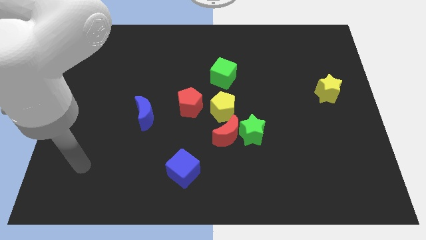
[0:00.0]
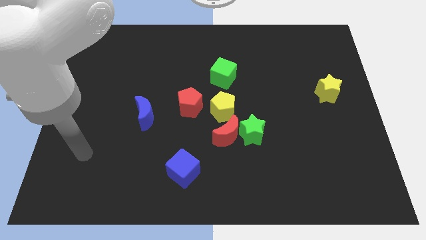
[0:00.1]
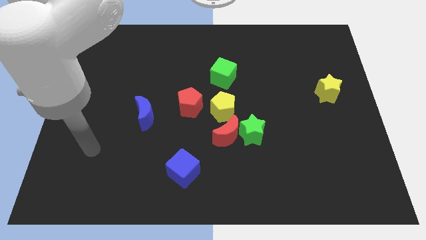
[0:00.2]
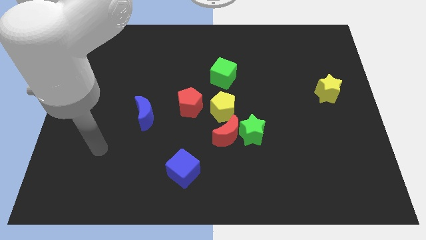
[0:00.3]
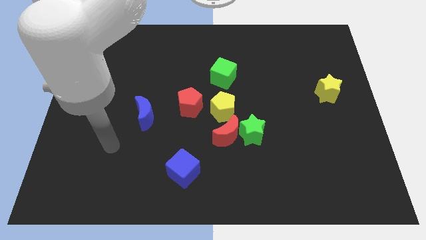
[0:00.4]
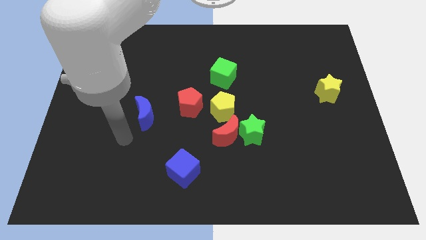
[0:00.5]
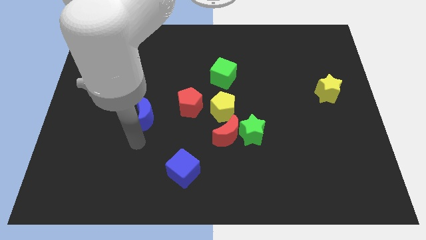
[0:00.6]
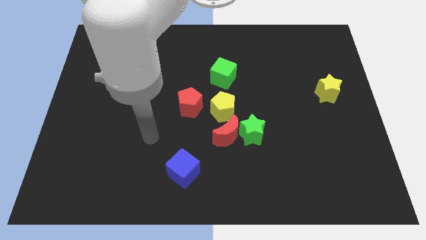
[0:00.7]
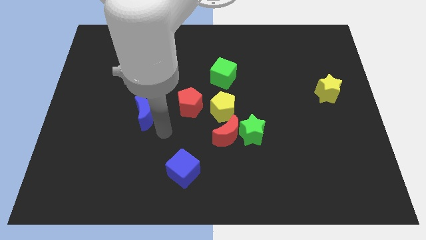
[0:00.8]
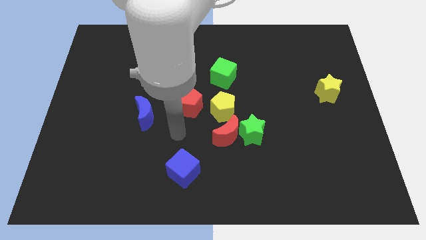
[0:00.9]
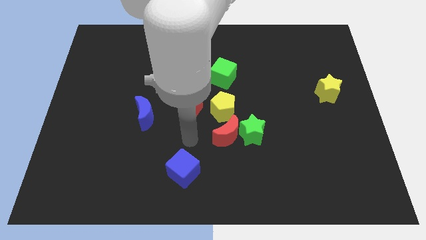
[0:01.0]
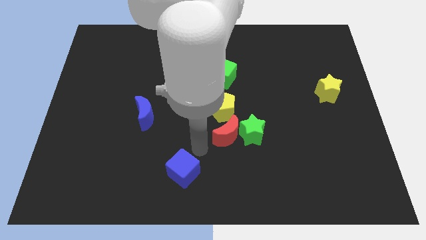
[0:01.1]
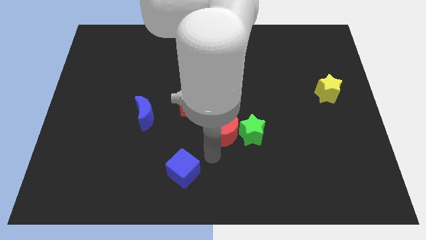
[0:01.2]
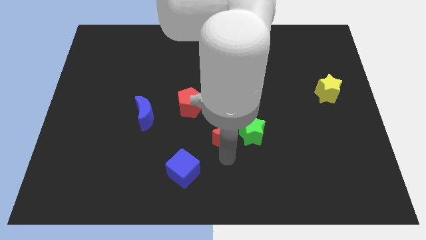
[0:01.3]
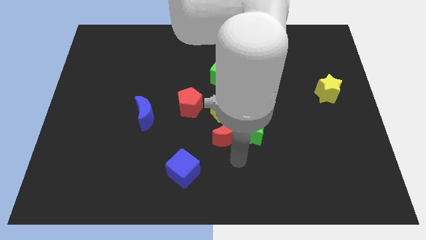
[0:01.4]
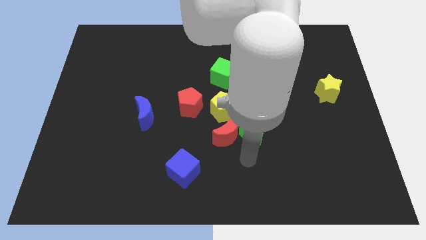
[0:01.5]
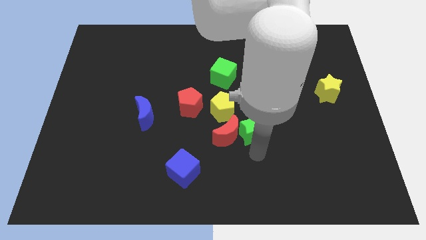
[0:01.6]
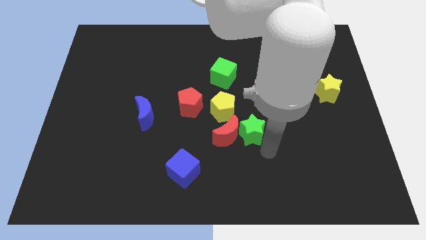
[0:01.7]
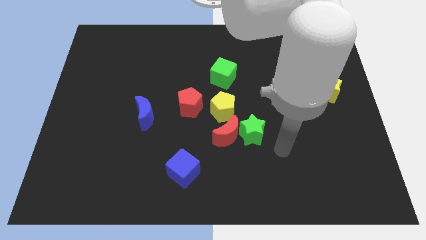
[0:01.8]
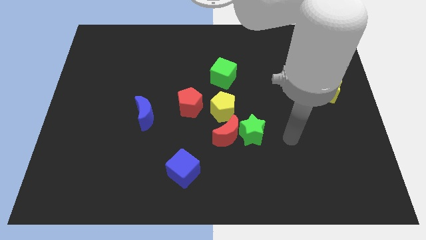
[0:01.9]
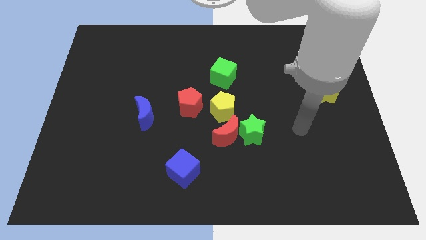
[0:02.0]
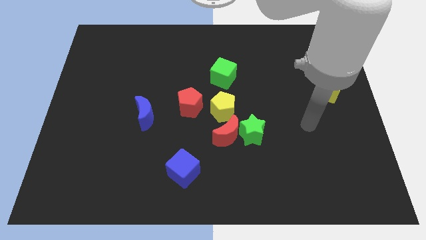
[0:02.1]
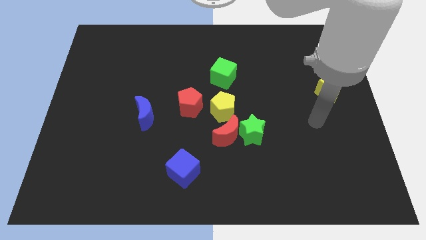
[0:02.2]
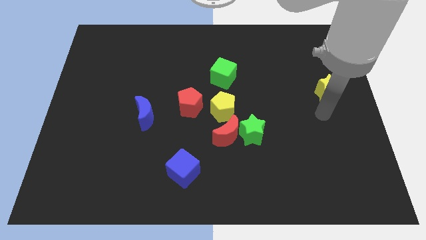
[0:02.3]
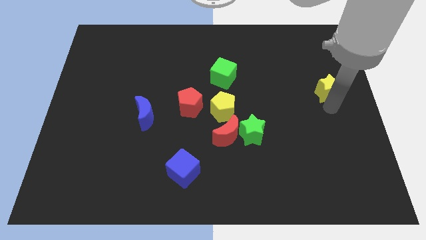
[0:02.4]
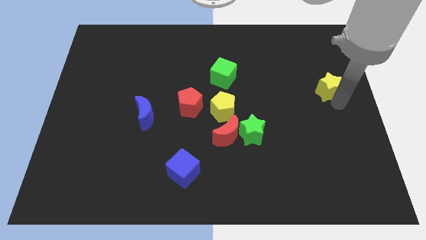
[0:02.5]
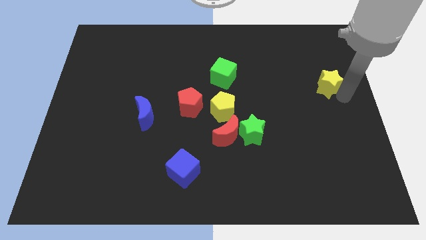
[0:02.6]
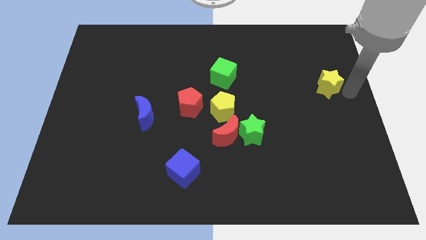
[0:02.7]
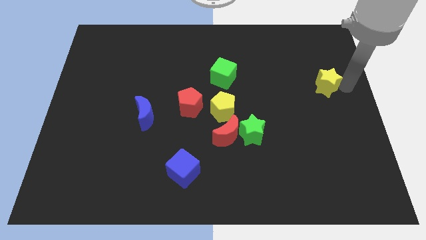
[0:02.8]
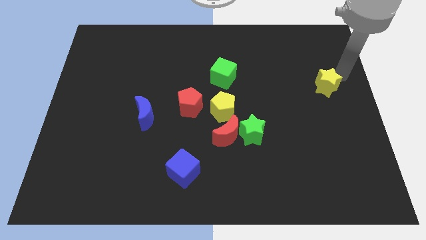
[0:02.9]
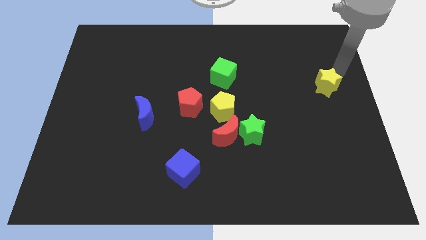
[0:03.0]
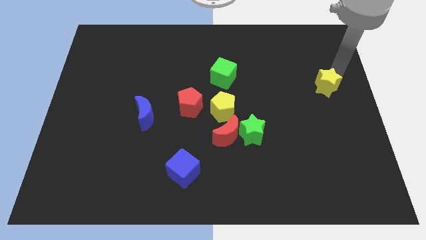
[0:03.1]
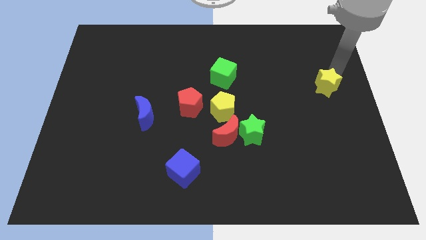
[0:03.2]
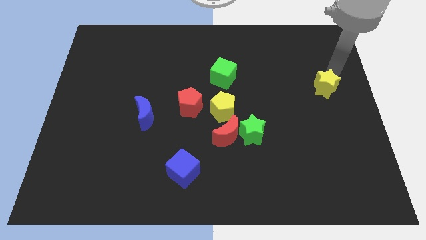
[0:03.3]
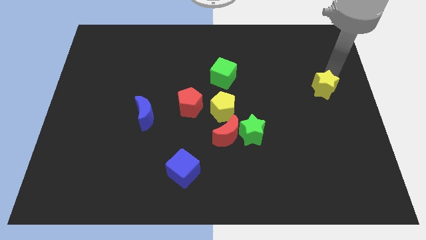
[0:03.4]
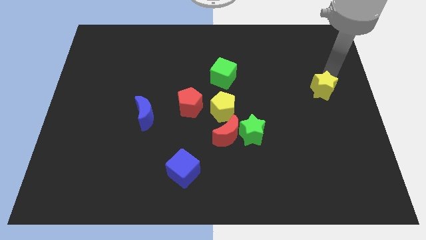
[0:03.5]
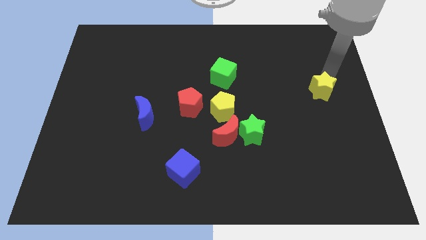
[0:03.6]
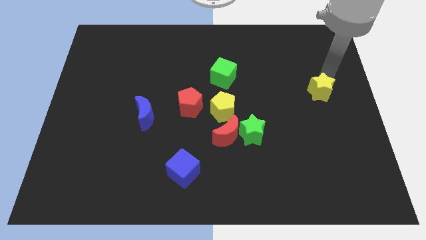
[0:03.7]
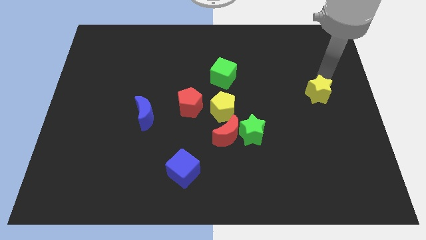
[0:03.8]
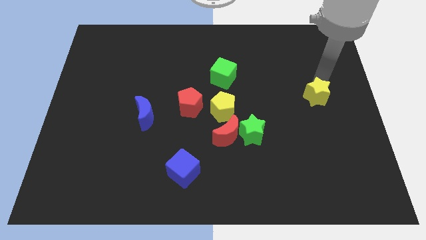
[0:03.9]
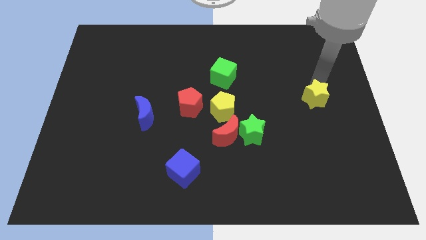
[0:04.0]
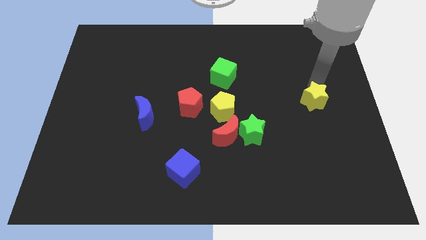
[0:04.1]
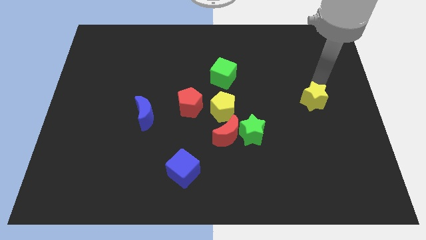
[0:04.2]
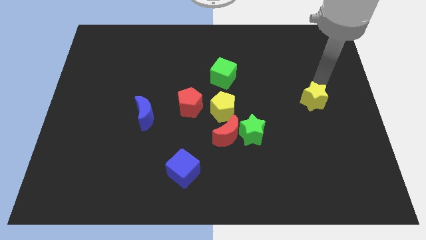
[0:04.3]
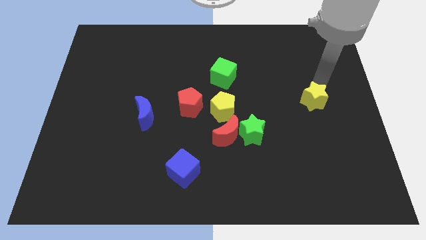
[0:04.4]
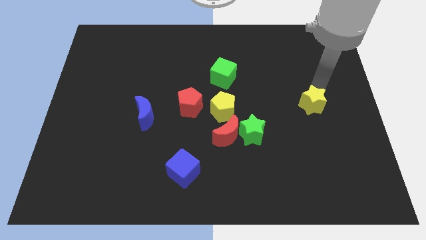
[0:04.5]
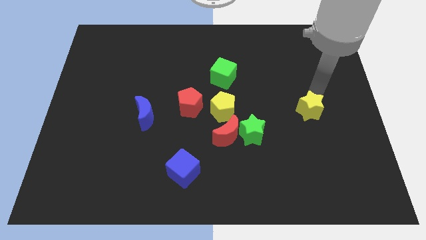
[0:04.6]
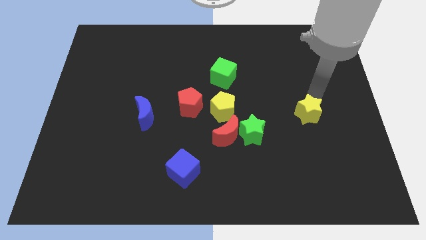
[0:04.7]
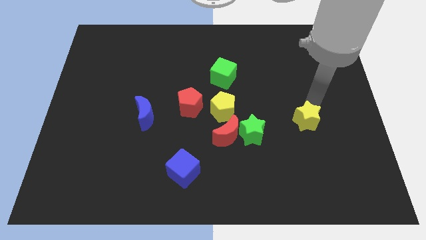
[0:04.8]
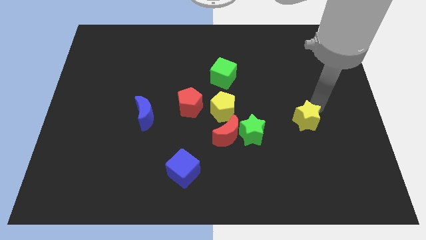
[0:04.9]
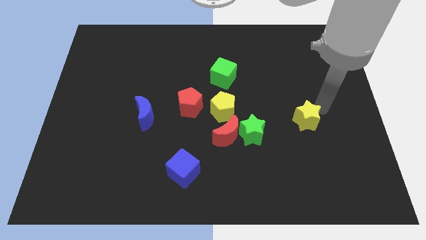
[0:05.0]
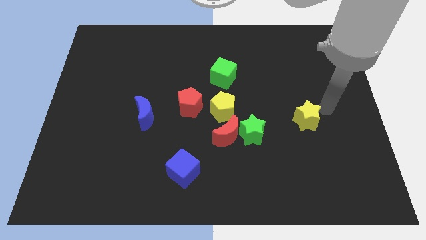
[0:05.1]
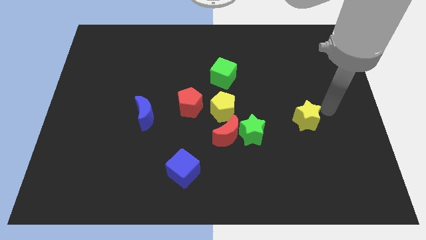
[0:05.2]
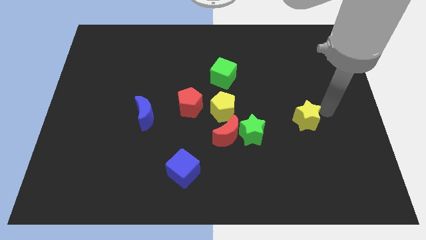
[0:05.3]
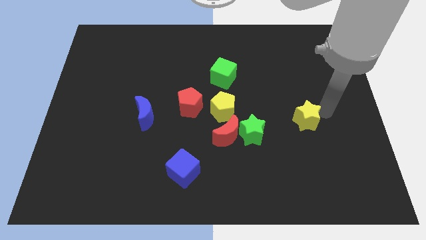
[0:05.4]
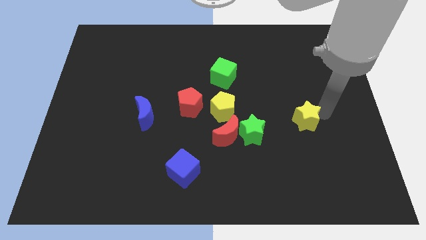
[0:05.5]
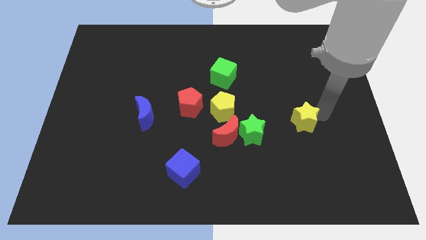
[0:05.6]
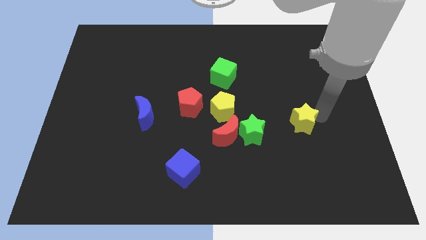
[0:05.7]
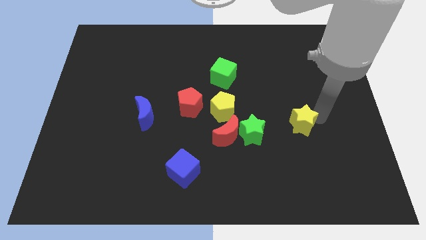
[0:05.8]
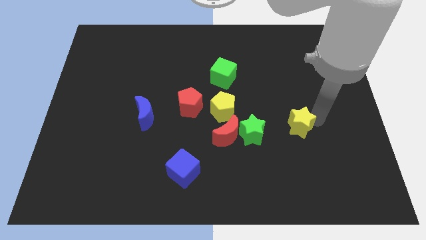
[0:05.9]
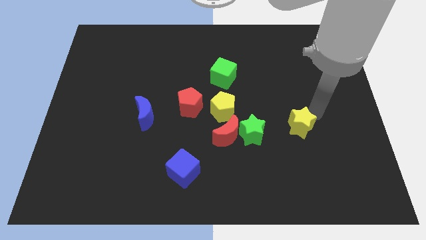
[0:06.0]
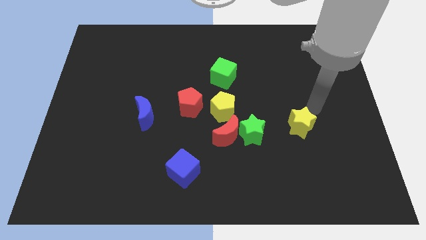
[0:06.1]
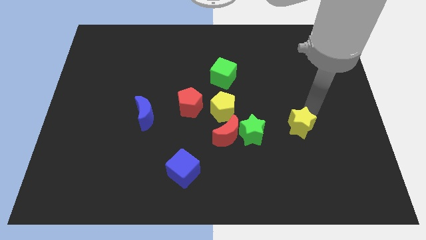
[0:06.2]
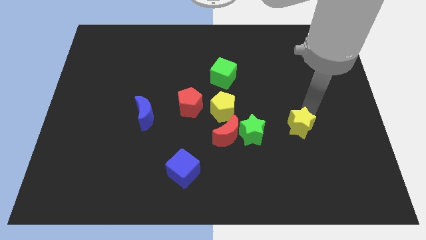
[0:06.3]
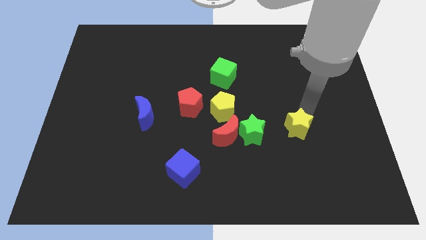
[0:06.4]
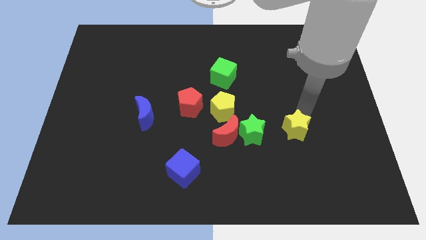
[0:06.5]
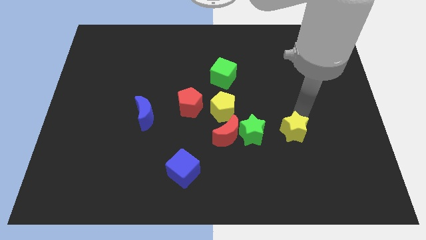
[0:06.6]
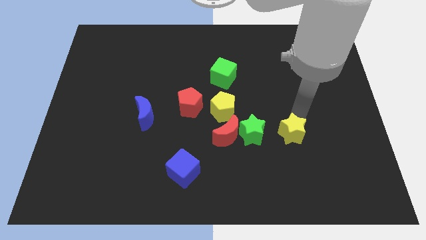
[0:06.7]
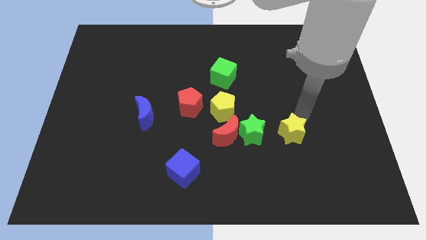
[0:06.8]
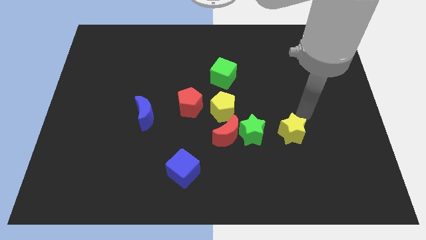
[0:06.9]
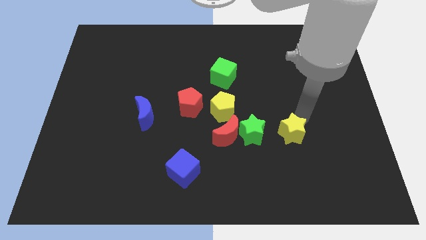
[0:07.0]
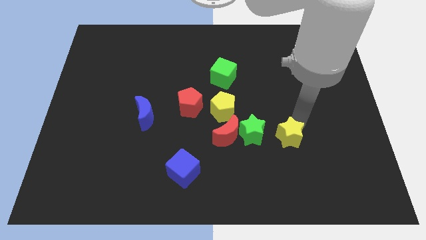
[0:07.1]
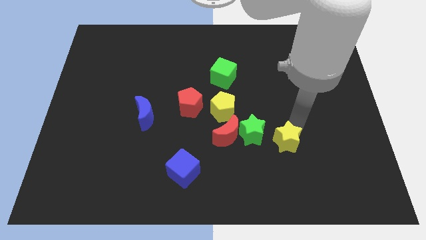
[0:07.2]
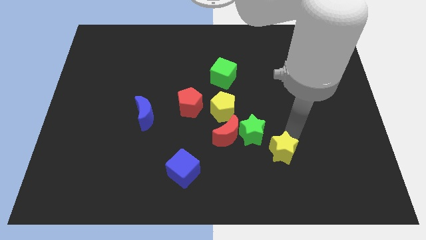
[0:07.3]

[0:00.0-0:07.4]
push the yellow star downwards and then to the left
